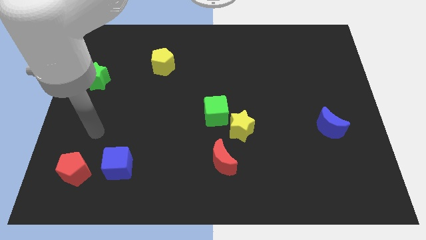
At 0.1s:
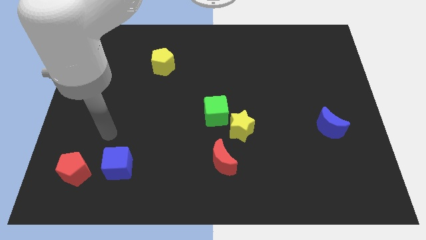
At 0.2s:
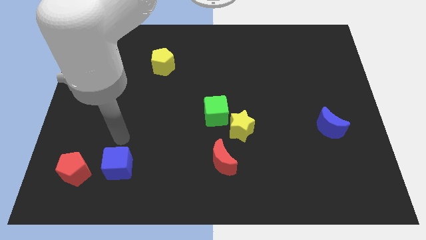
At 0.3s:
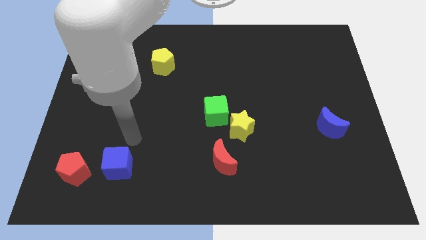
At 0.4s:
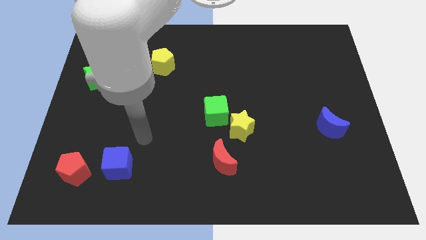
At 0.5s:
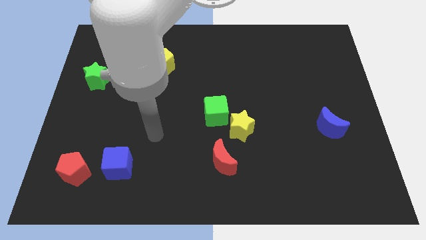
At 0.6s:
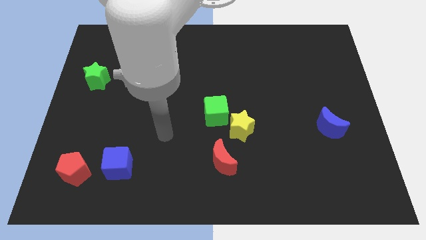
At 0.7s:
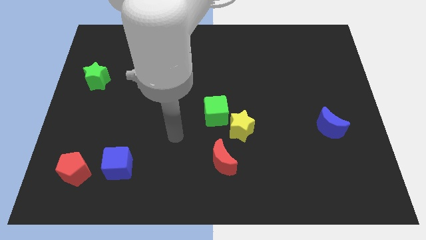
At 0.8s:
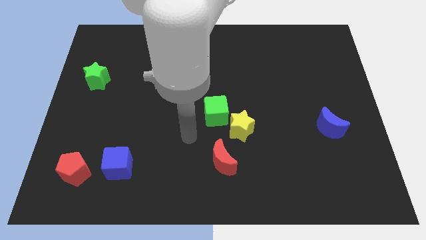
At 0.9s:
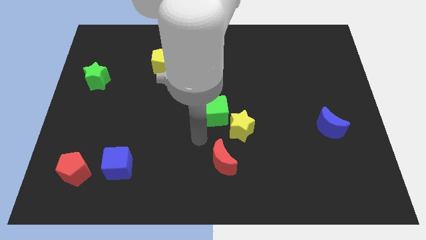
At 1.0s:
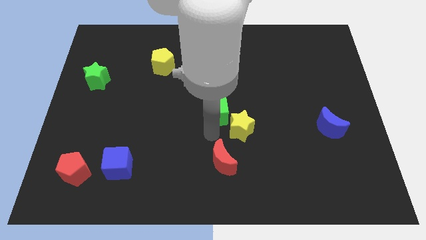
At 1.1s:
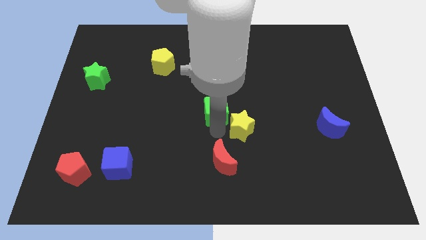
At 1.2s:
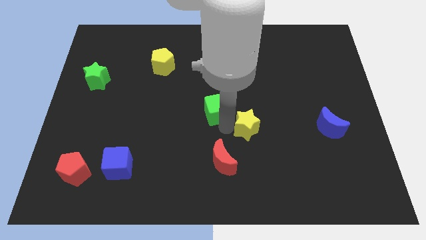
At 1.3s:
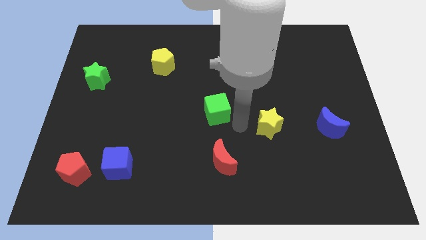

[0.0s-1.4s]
pull the green cube apart from the yellow star

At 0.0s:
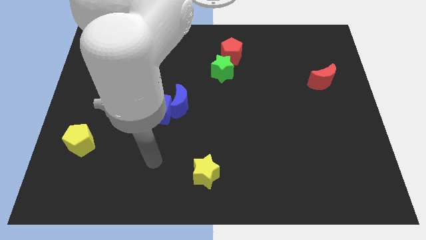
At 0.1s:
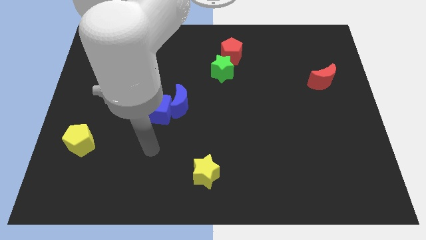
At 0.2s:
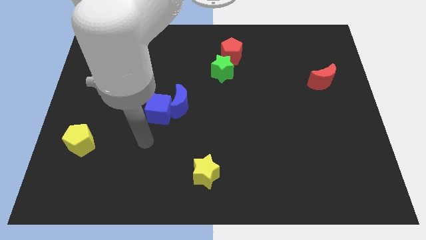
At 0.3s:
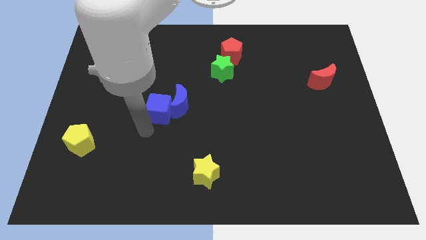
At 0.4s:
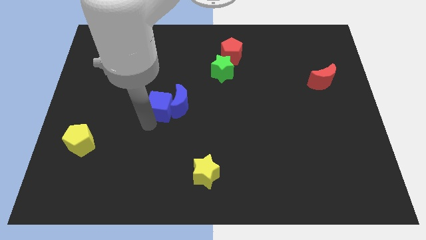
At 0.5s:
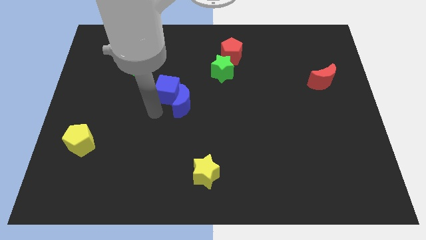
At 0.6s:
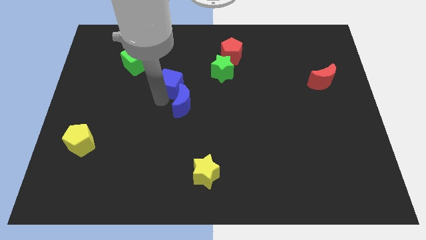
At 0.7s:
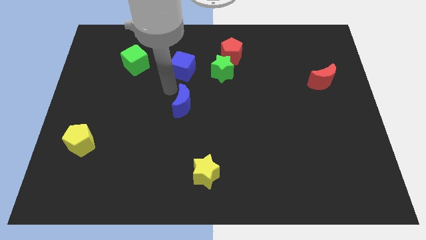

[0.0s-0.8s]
separate the blue moon from the blue cube

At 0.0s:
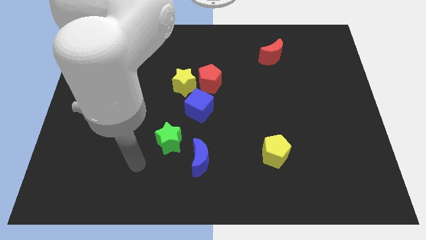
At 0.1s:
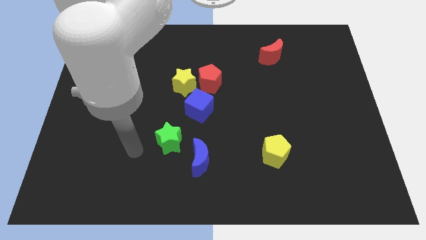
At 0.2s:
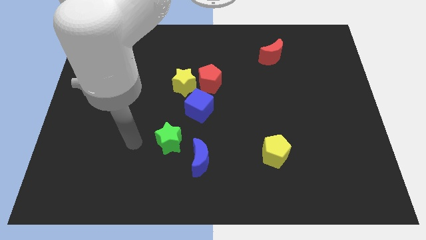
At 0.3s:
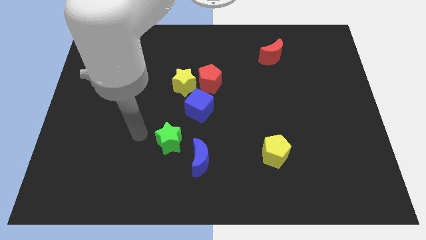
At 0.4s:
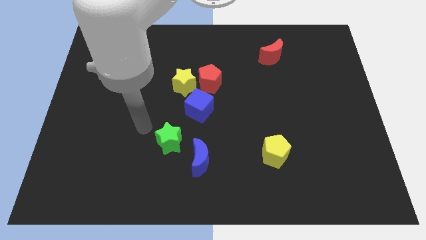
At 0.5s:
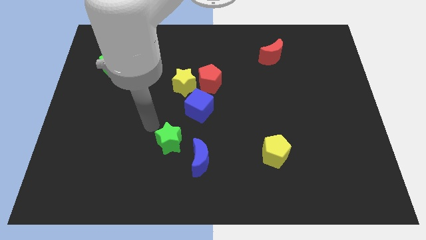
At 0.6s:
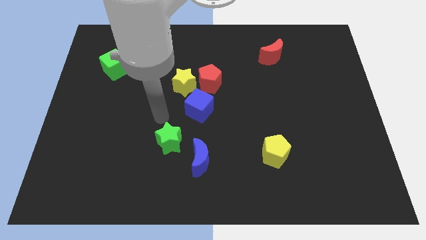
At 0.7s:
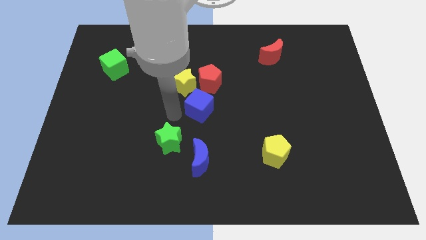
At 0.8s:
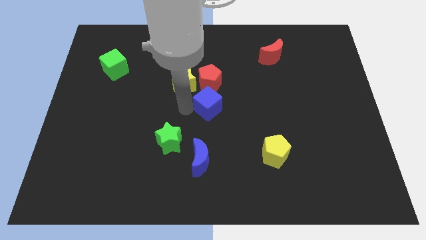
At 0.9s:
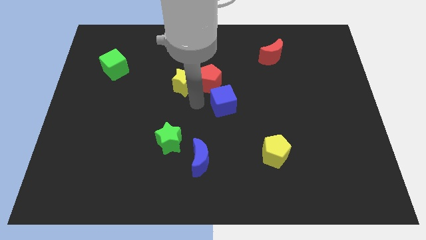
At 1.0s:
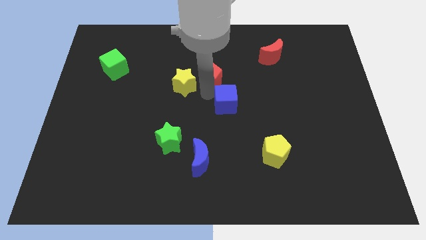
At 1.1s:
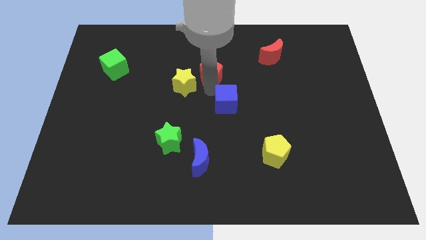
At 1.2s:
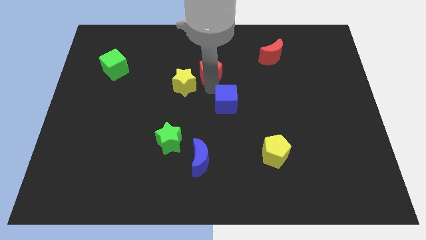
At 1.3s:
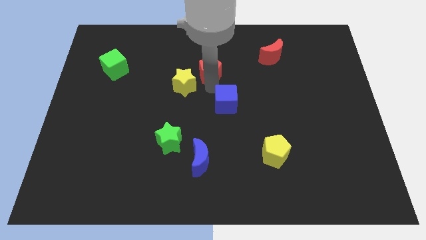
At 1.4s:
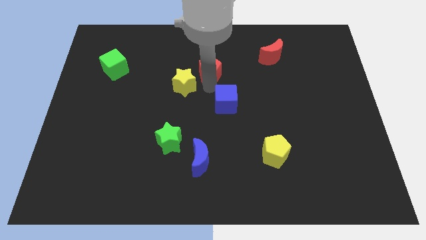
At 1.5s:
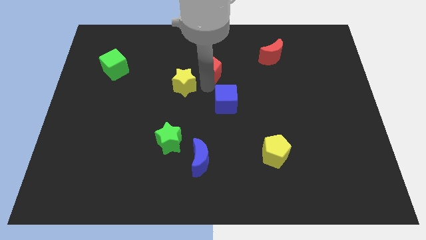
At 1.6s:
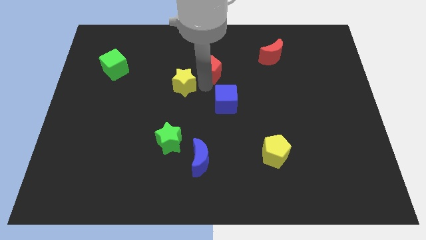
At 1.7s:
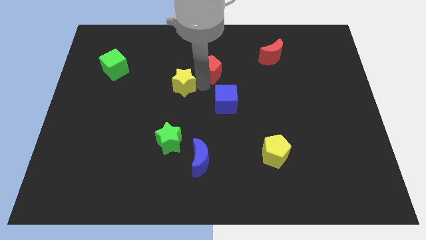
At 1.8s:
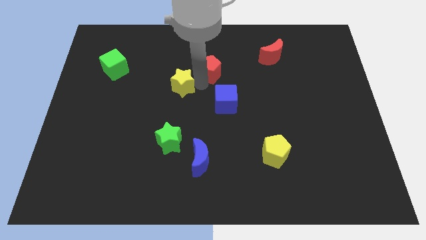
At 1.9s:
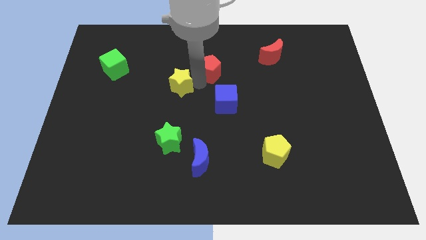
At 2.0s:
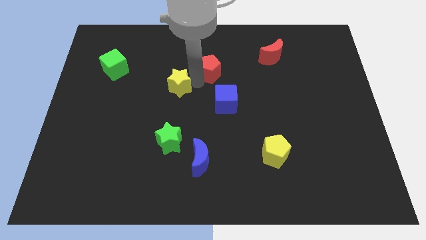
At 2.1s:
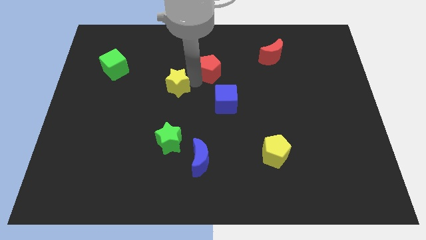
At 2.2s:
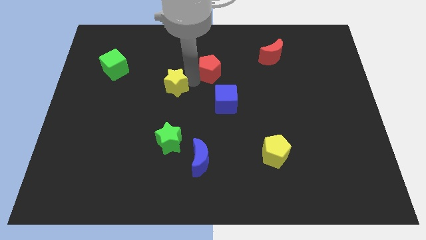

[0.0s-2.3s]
separate the yellow star from the red pentagon and blue cube

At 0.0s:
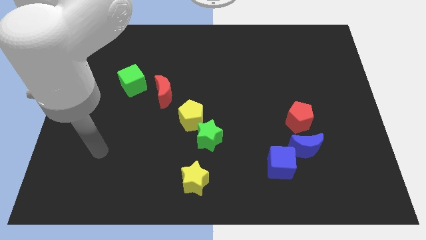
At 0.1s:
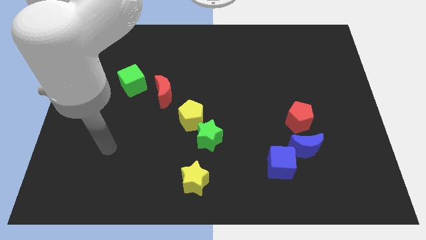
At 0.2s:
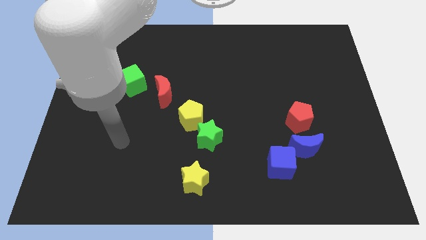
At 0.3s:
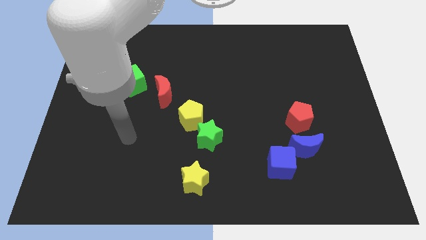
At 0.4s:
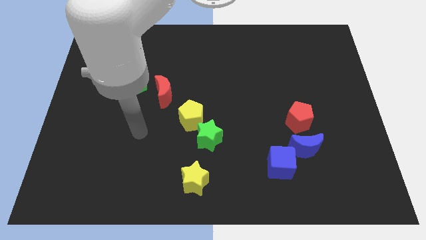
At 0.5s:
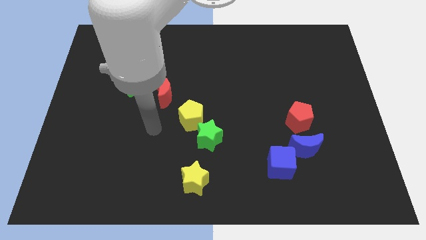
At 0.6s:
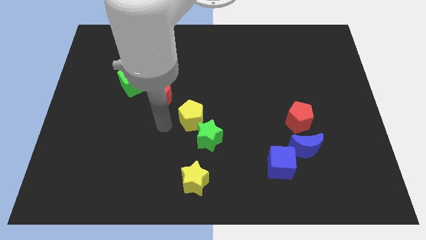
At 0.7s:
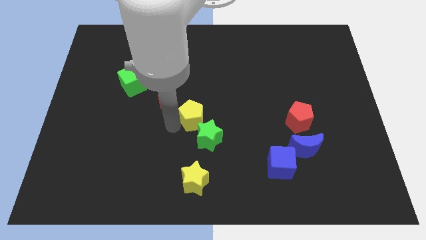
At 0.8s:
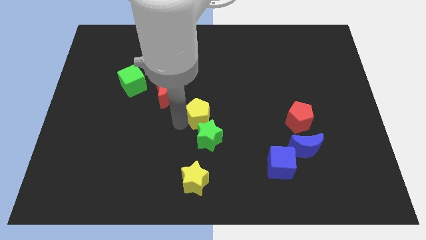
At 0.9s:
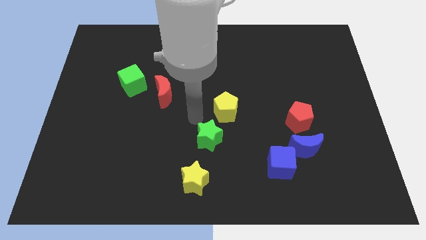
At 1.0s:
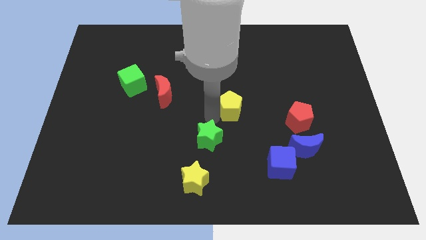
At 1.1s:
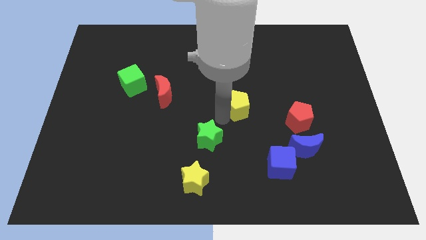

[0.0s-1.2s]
separate the green star from the yellow pentagon

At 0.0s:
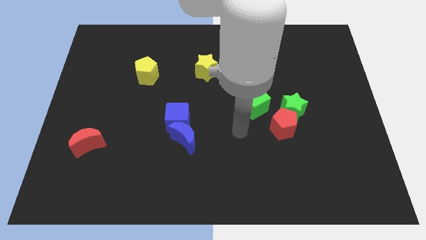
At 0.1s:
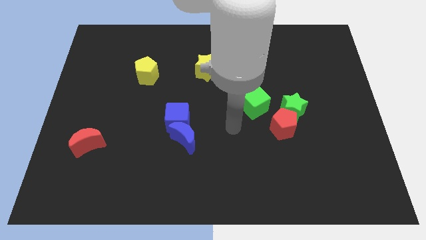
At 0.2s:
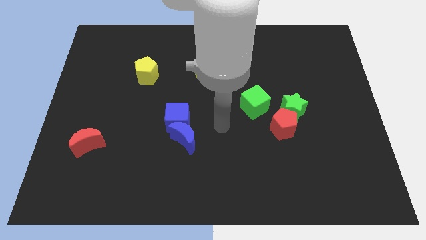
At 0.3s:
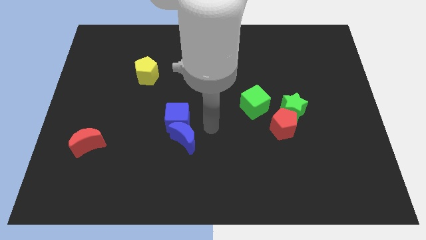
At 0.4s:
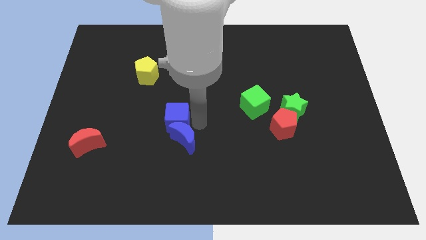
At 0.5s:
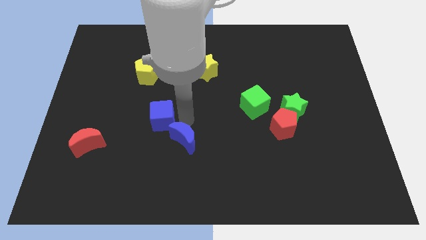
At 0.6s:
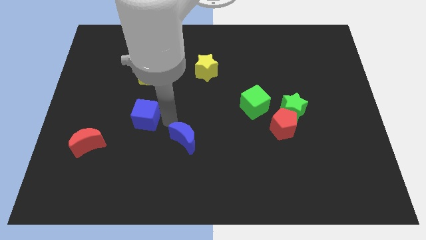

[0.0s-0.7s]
pull the blue moon apart from the blue cube

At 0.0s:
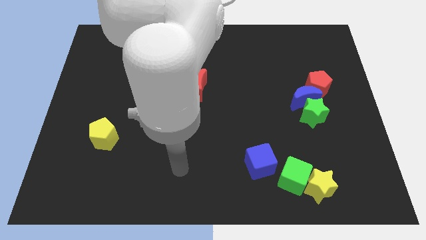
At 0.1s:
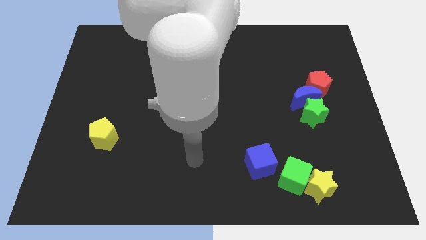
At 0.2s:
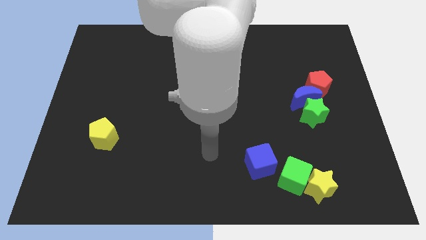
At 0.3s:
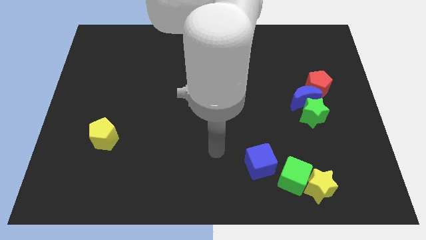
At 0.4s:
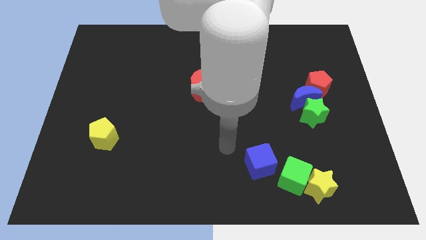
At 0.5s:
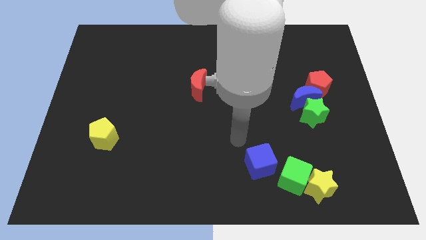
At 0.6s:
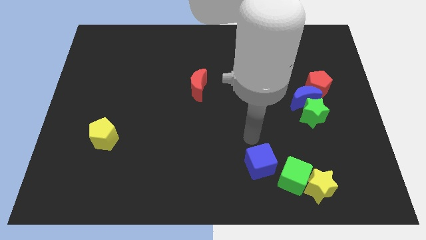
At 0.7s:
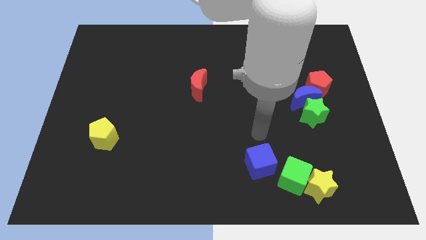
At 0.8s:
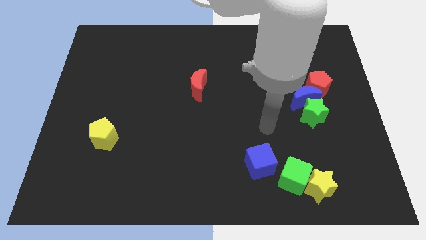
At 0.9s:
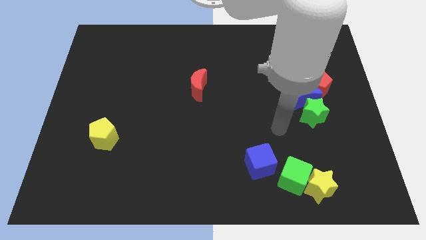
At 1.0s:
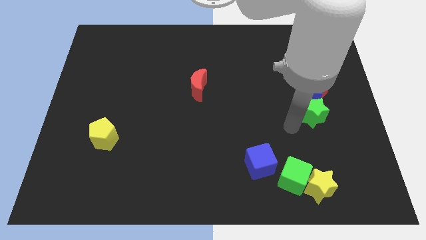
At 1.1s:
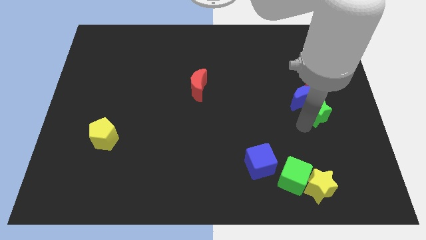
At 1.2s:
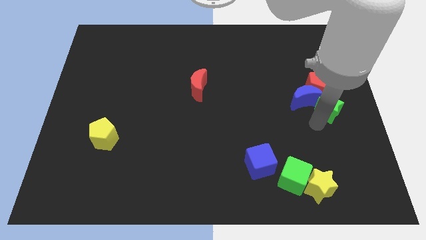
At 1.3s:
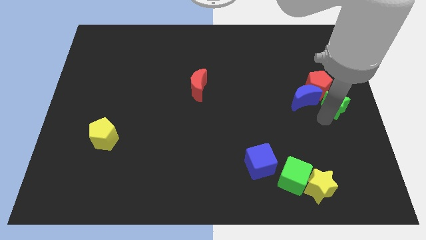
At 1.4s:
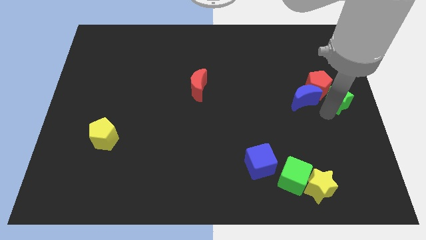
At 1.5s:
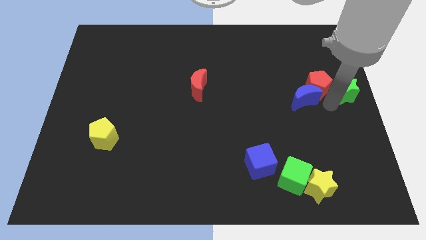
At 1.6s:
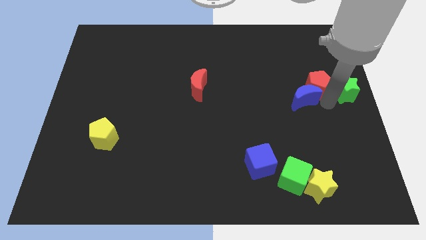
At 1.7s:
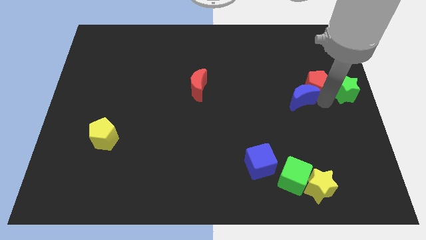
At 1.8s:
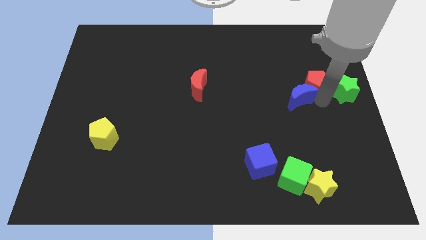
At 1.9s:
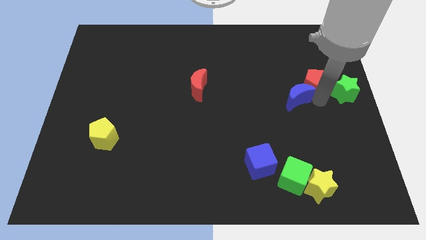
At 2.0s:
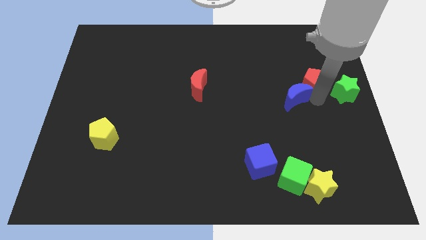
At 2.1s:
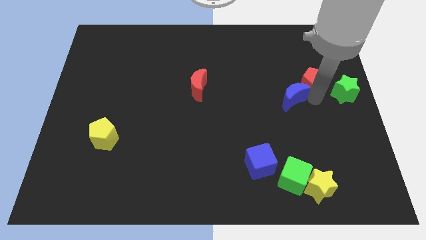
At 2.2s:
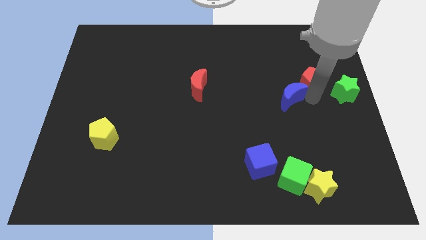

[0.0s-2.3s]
pull the blue moon apart from the green star and red pentagon

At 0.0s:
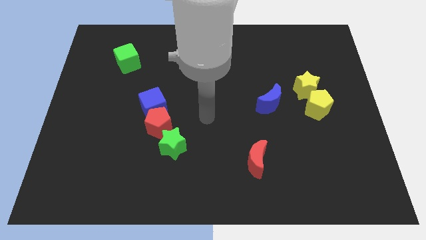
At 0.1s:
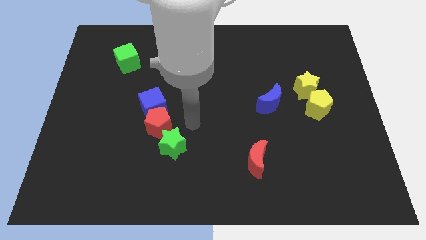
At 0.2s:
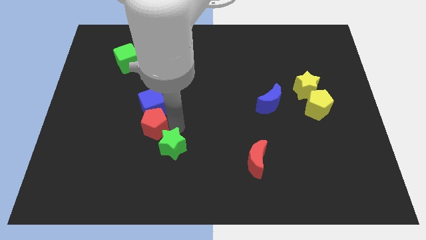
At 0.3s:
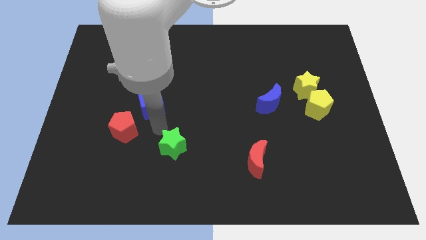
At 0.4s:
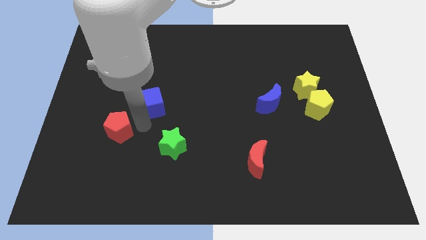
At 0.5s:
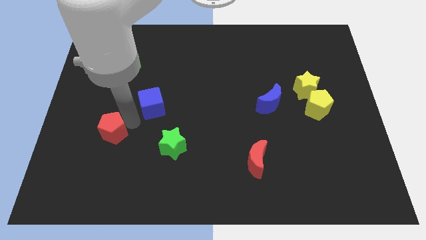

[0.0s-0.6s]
move the blue cube away from the red pentagon
